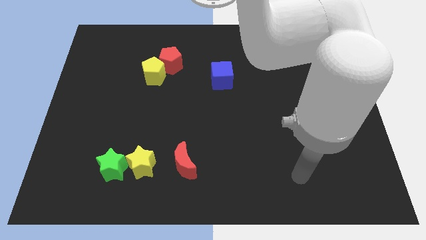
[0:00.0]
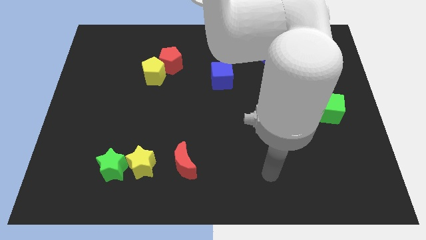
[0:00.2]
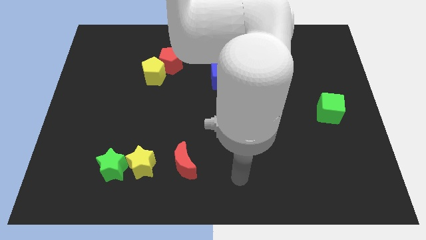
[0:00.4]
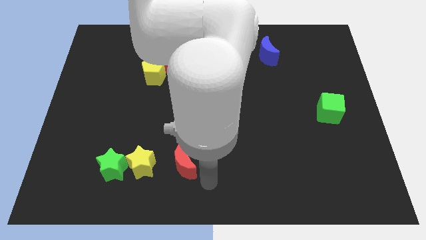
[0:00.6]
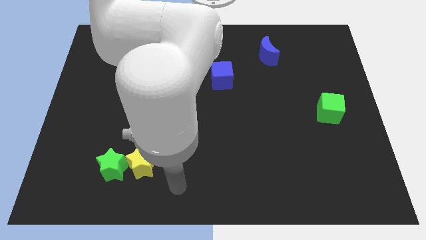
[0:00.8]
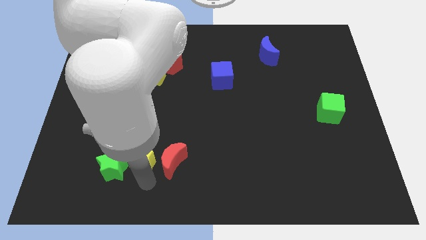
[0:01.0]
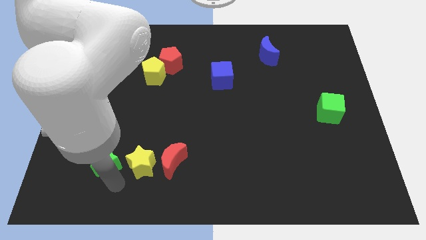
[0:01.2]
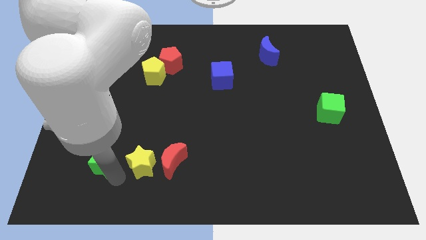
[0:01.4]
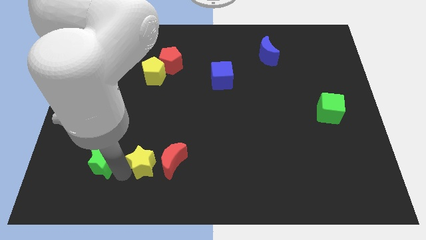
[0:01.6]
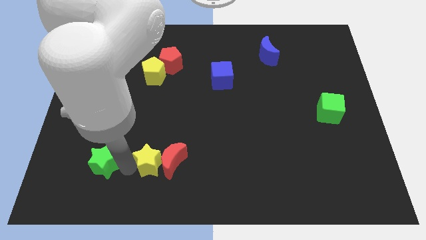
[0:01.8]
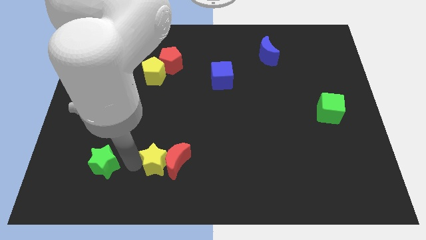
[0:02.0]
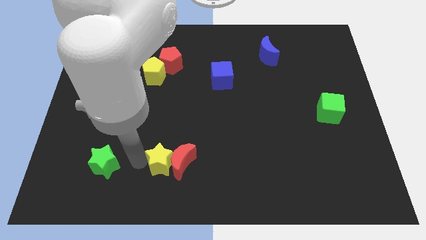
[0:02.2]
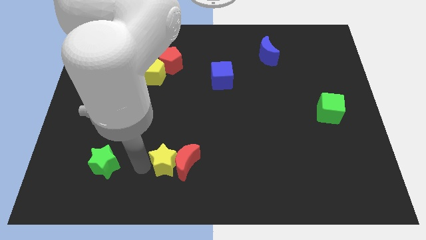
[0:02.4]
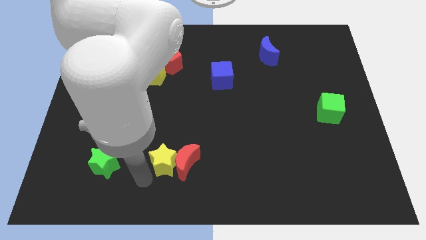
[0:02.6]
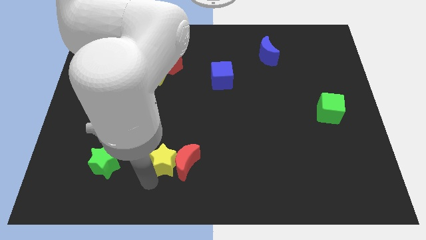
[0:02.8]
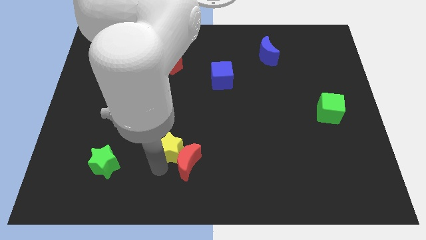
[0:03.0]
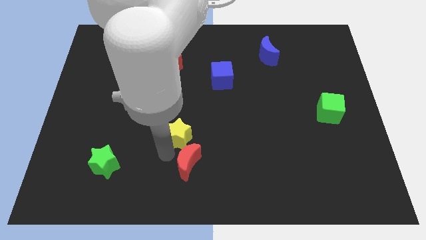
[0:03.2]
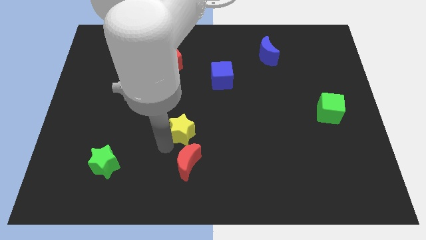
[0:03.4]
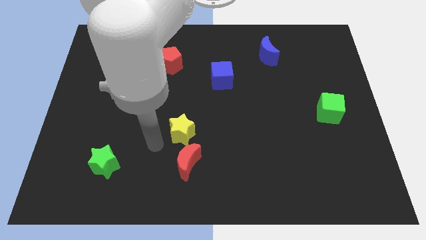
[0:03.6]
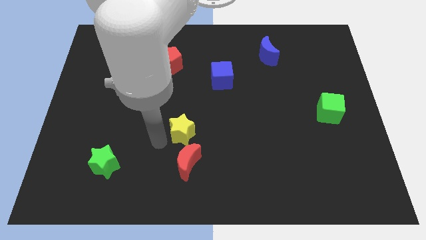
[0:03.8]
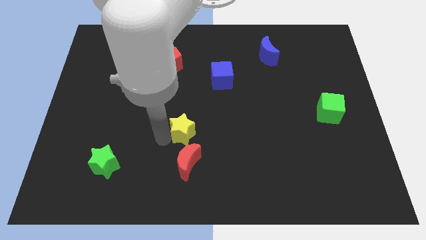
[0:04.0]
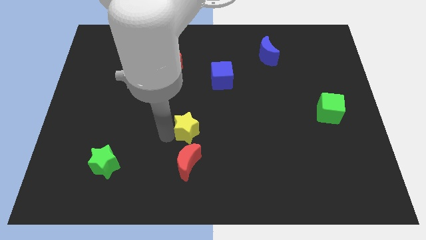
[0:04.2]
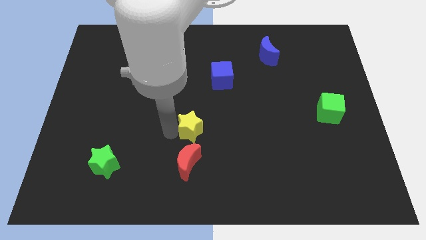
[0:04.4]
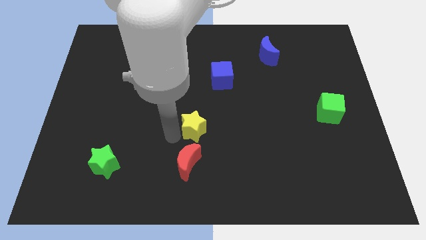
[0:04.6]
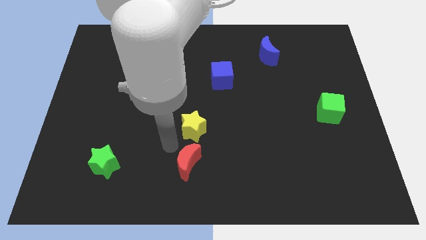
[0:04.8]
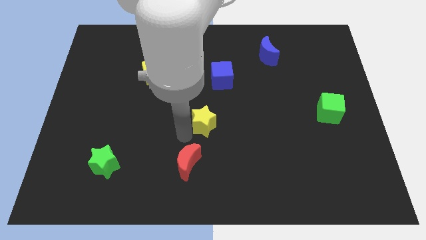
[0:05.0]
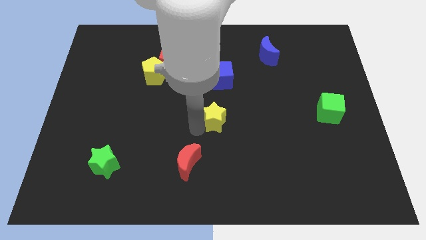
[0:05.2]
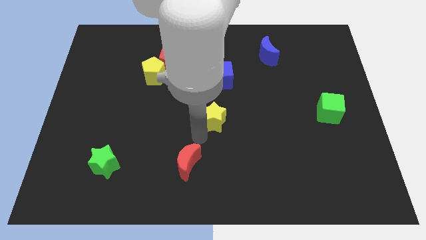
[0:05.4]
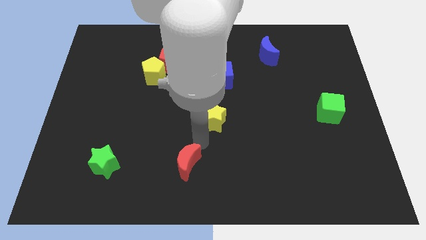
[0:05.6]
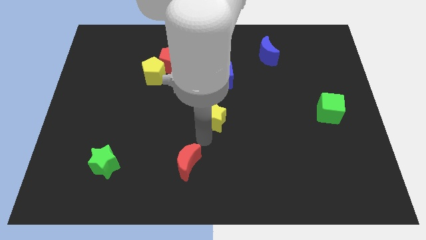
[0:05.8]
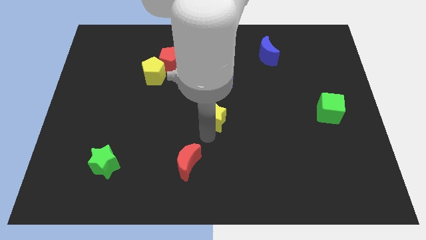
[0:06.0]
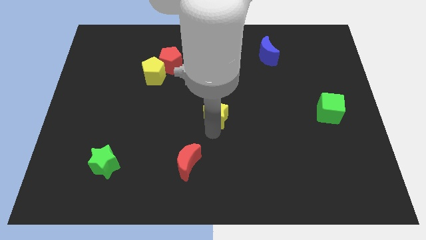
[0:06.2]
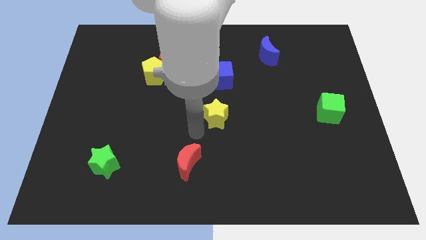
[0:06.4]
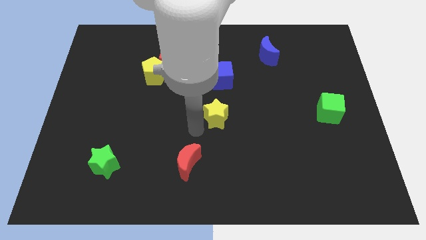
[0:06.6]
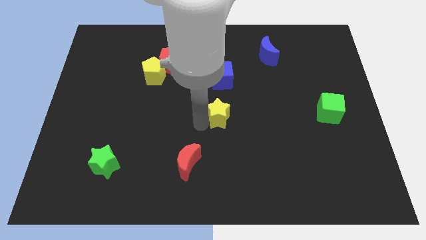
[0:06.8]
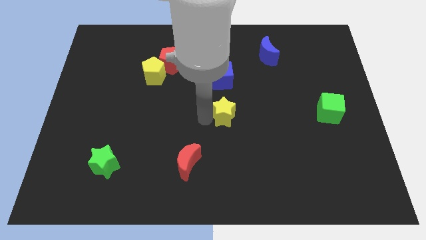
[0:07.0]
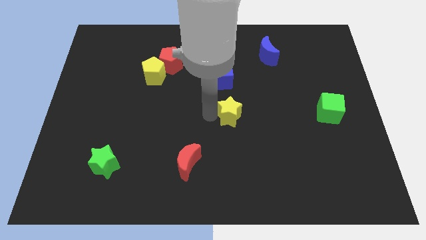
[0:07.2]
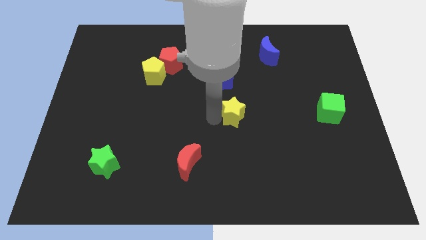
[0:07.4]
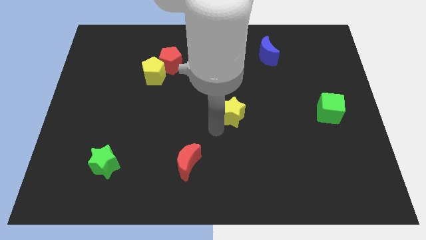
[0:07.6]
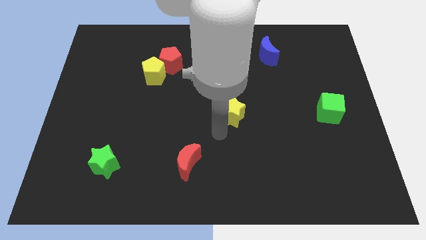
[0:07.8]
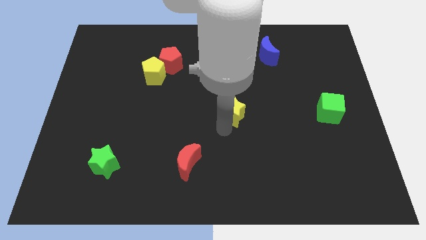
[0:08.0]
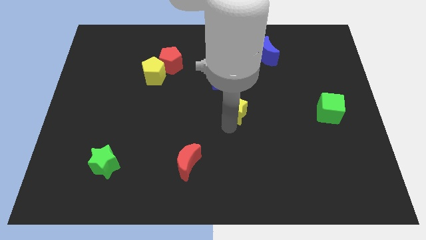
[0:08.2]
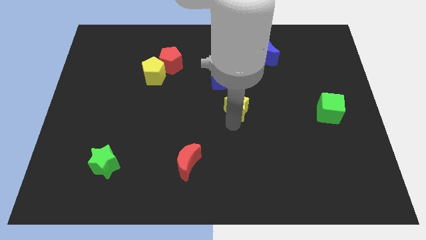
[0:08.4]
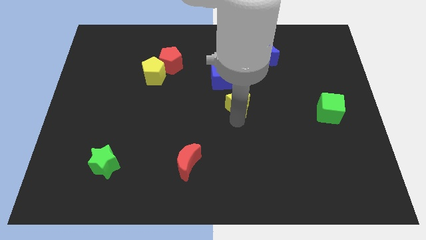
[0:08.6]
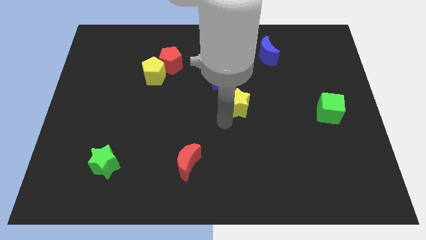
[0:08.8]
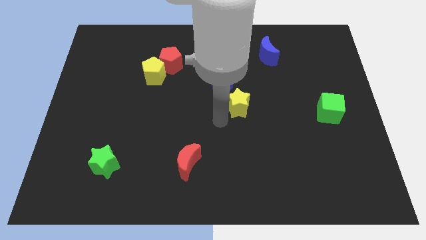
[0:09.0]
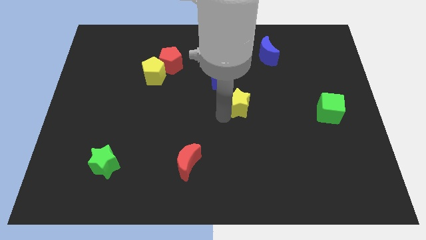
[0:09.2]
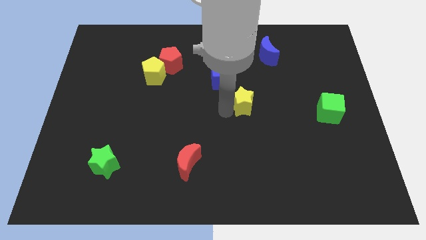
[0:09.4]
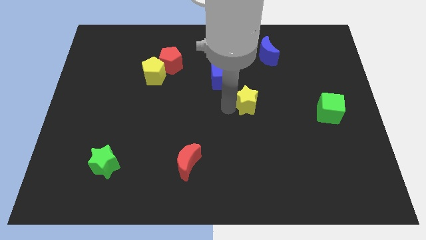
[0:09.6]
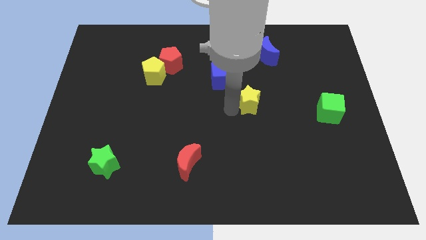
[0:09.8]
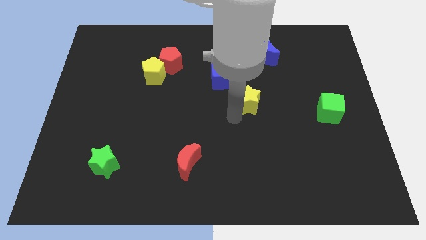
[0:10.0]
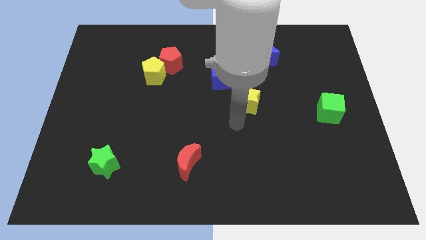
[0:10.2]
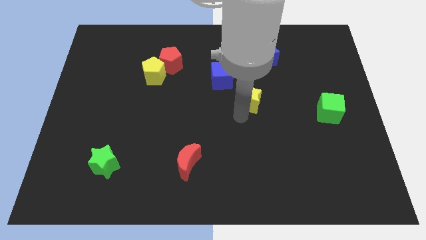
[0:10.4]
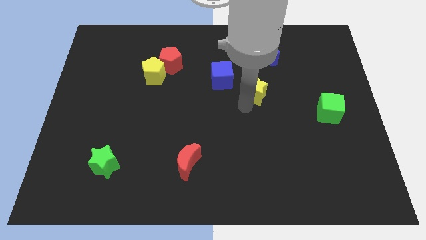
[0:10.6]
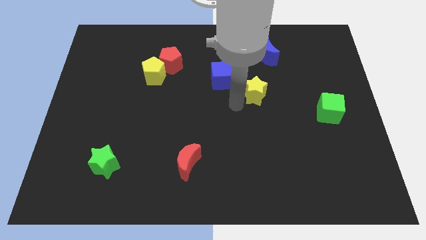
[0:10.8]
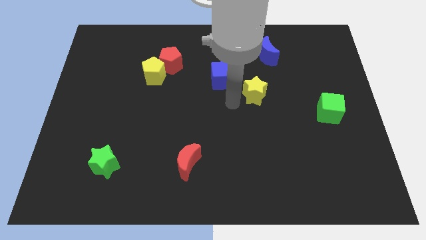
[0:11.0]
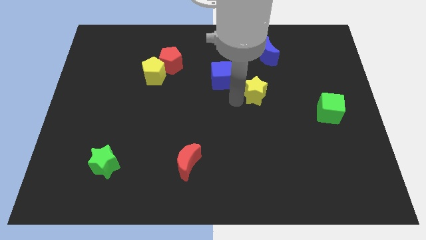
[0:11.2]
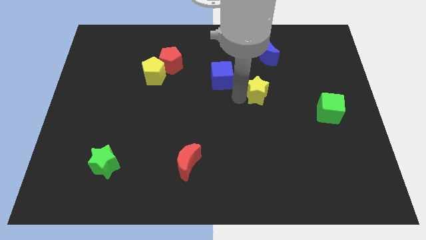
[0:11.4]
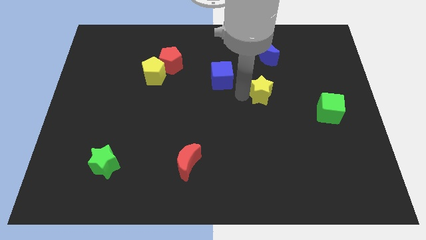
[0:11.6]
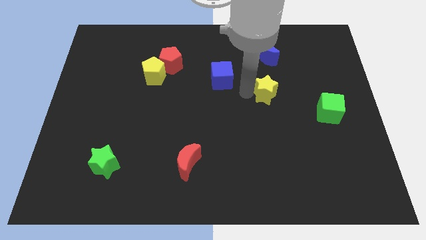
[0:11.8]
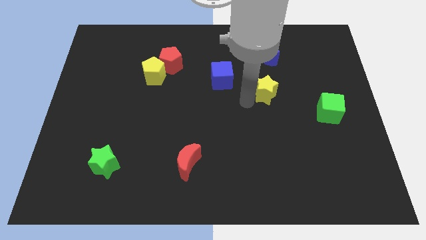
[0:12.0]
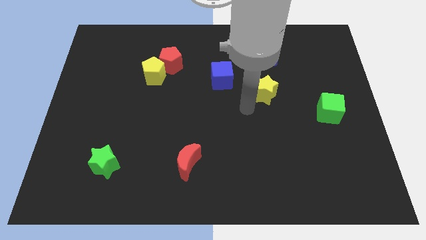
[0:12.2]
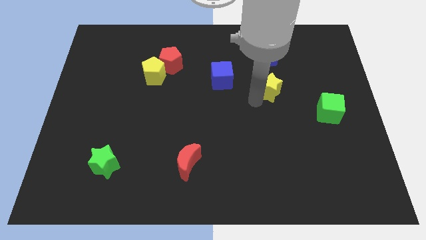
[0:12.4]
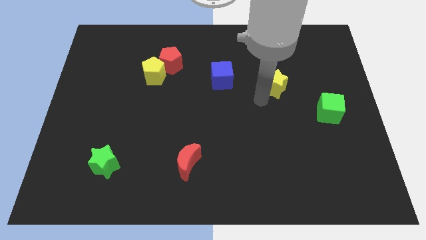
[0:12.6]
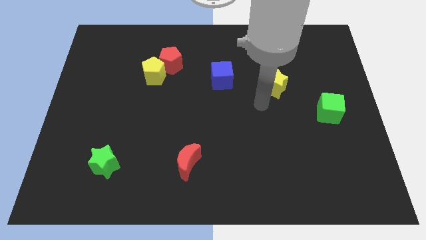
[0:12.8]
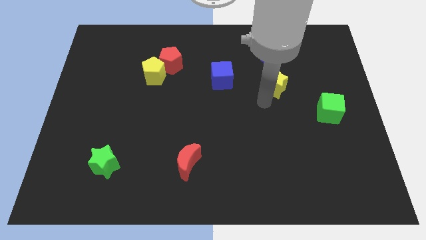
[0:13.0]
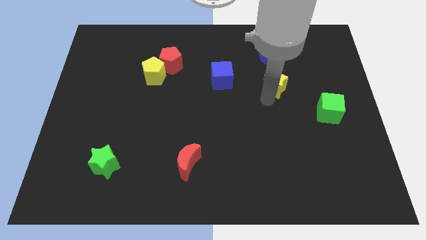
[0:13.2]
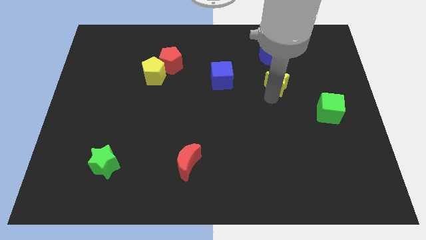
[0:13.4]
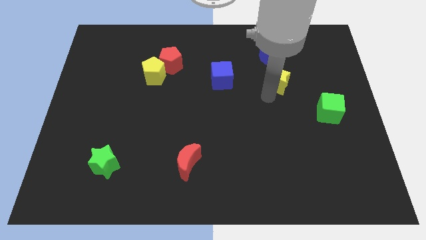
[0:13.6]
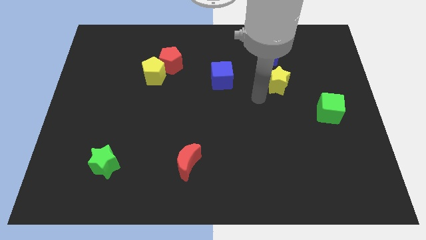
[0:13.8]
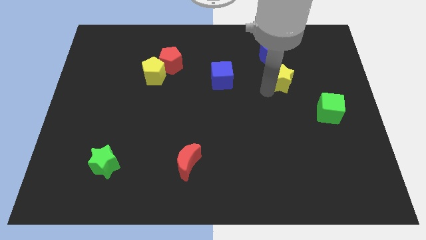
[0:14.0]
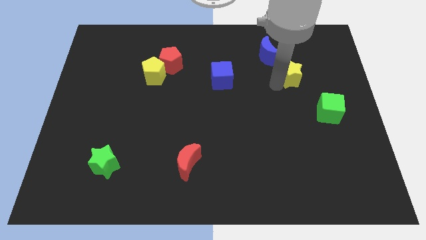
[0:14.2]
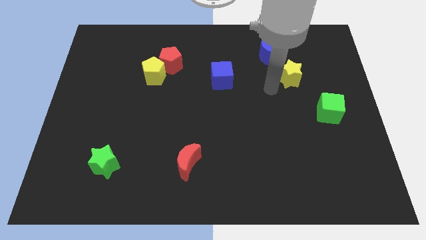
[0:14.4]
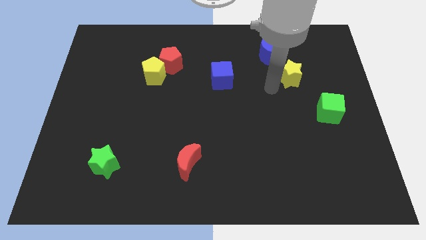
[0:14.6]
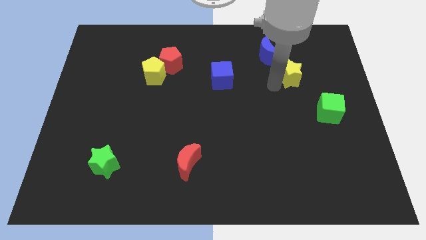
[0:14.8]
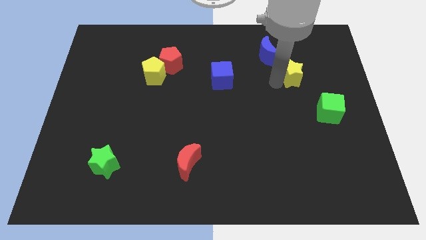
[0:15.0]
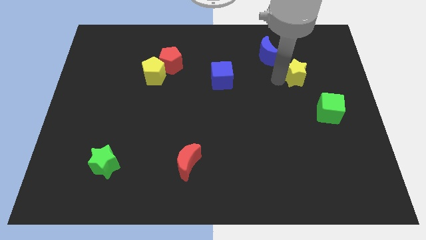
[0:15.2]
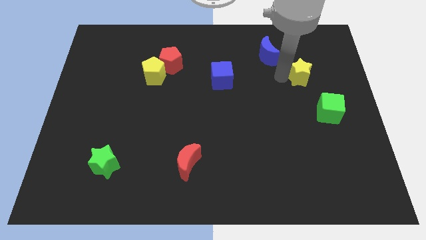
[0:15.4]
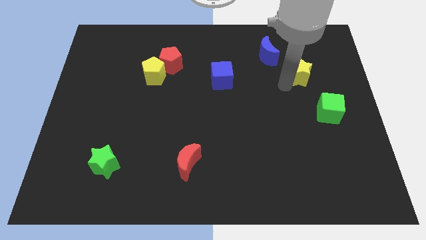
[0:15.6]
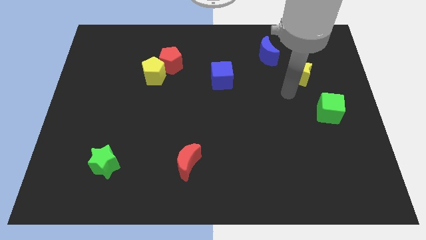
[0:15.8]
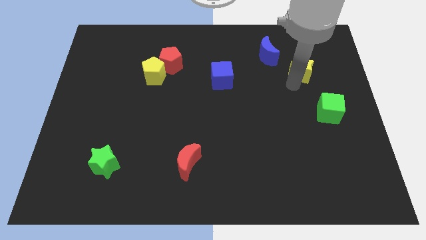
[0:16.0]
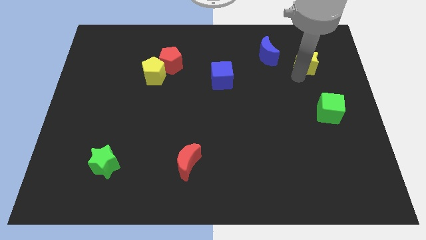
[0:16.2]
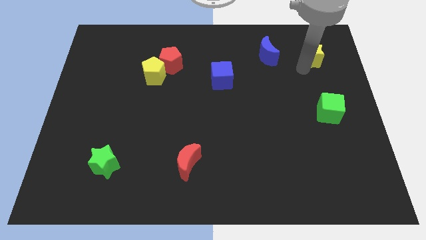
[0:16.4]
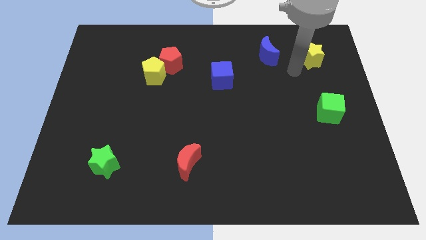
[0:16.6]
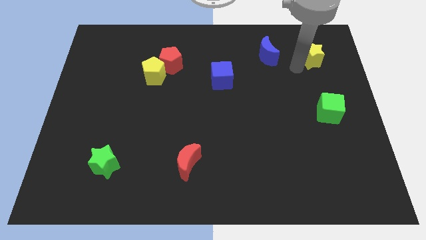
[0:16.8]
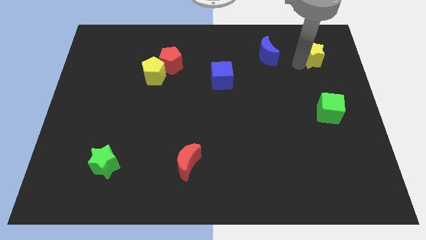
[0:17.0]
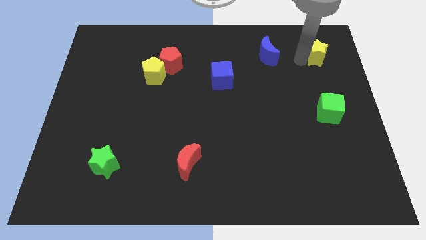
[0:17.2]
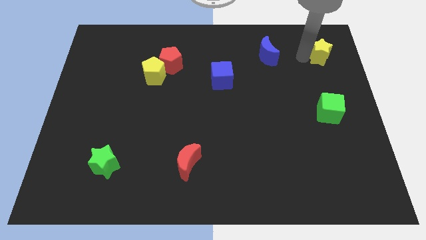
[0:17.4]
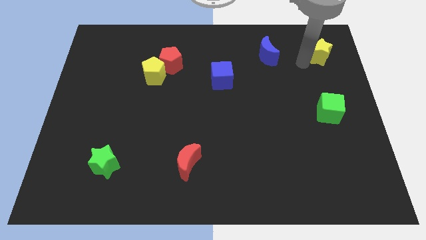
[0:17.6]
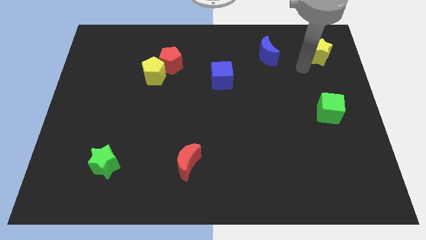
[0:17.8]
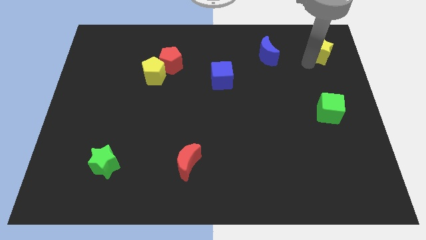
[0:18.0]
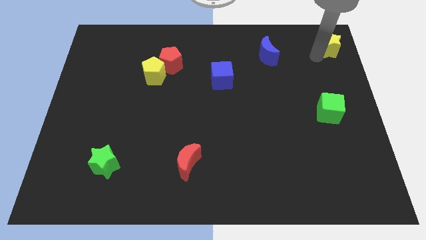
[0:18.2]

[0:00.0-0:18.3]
push the yellow star to the upper right corner
